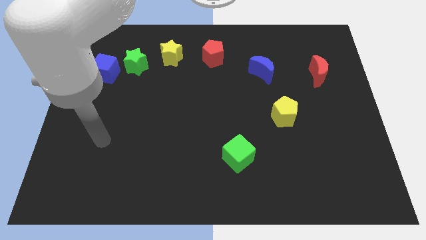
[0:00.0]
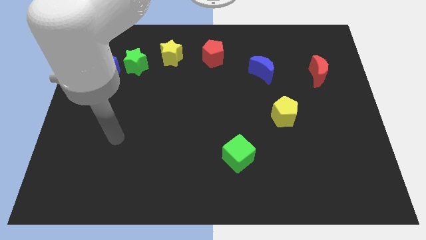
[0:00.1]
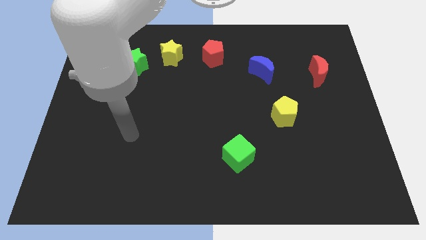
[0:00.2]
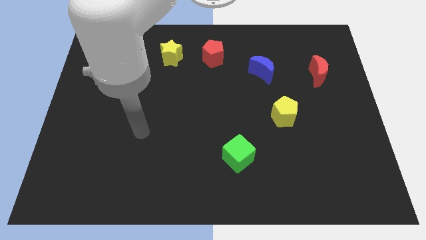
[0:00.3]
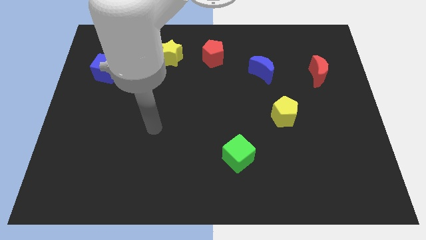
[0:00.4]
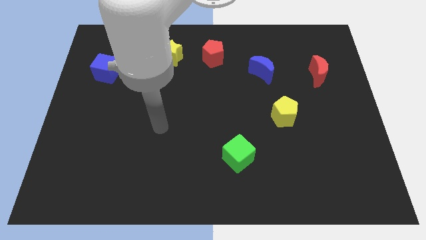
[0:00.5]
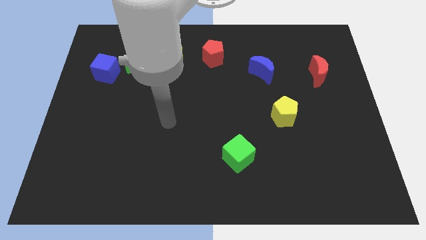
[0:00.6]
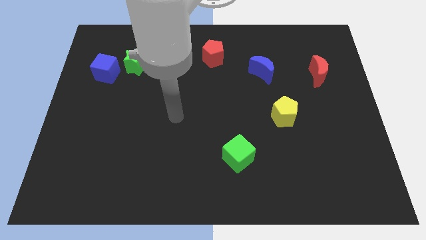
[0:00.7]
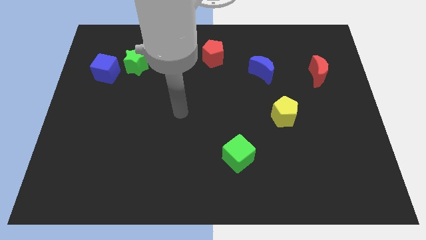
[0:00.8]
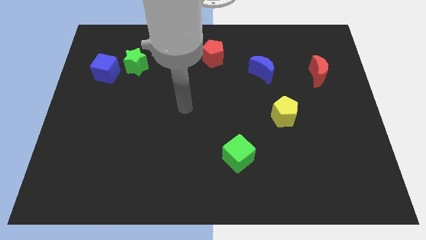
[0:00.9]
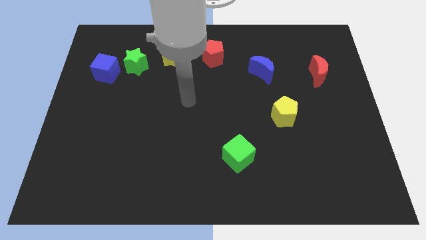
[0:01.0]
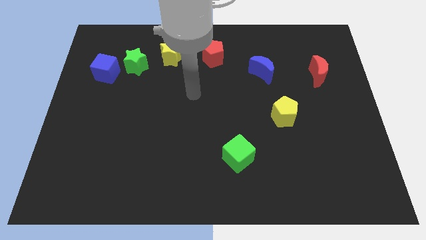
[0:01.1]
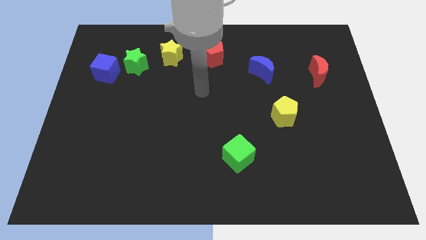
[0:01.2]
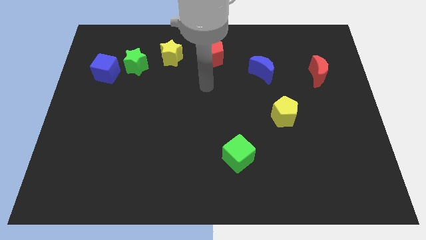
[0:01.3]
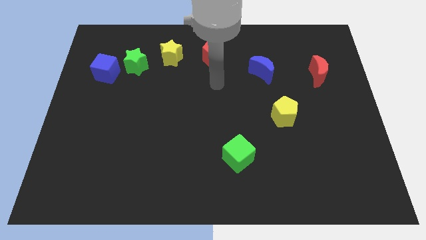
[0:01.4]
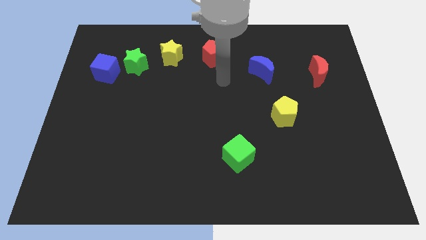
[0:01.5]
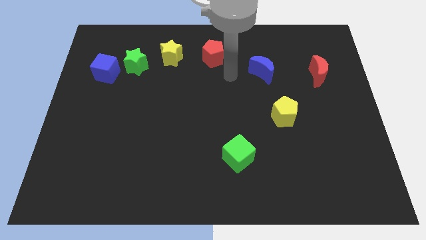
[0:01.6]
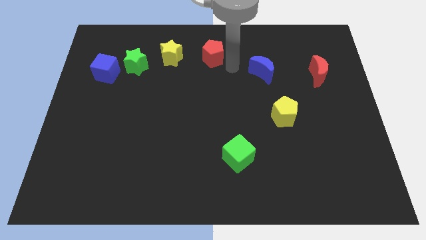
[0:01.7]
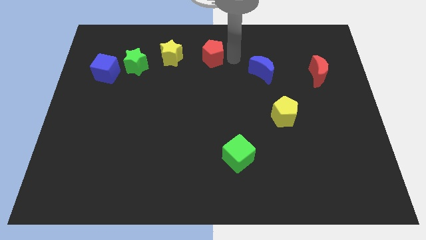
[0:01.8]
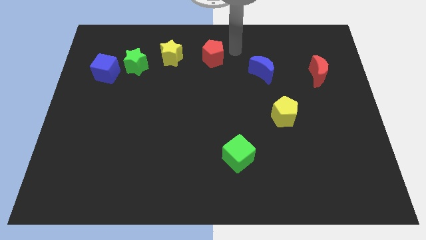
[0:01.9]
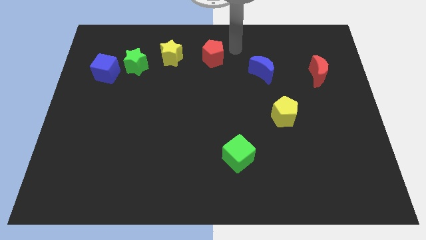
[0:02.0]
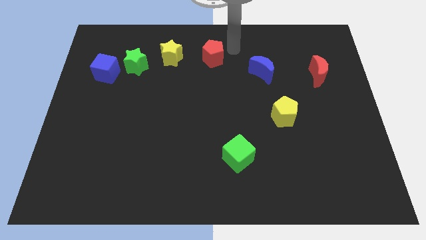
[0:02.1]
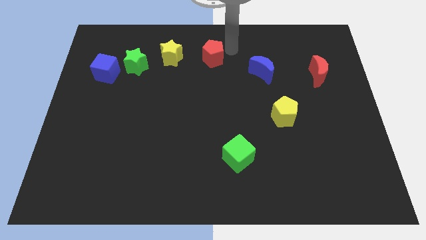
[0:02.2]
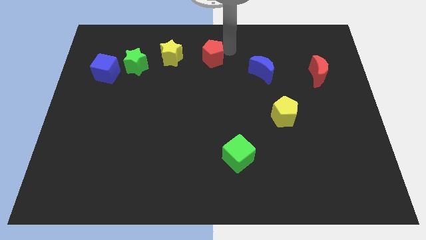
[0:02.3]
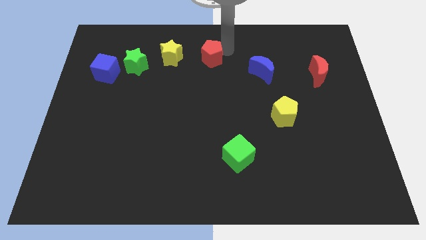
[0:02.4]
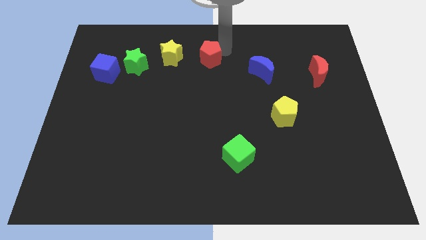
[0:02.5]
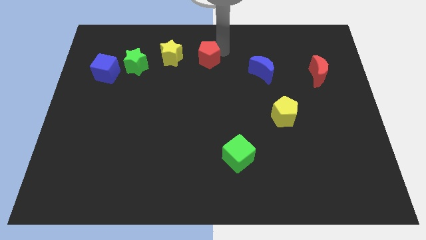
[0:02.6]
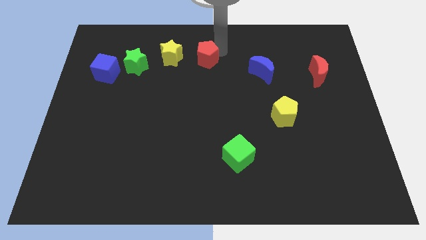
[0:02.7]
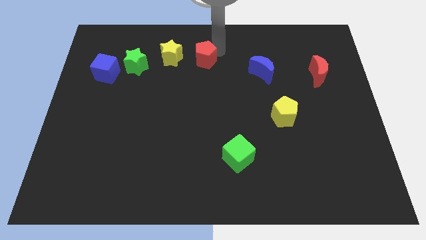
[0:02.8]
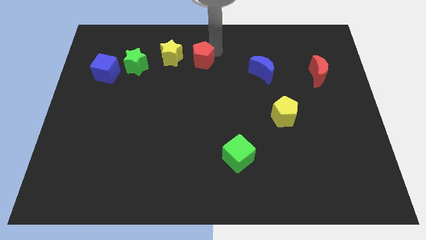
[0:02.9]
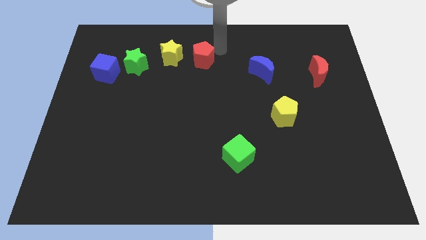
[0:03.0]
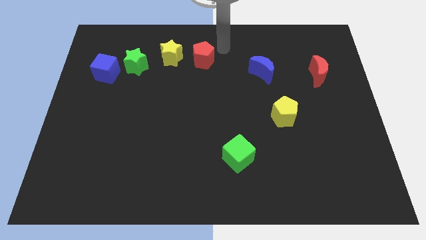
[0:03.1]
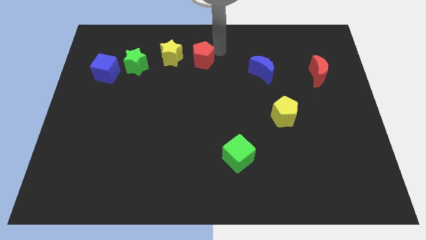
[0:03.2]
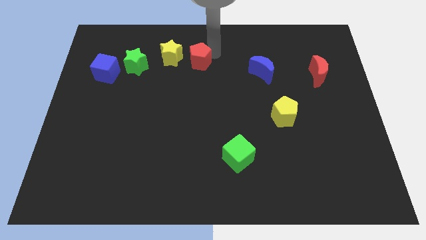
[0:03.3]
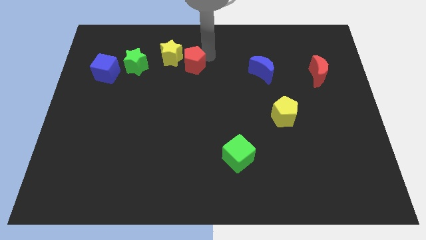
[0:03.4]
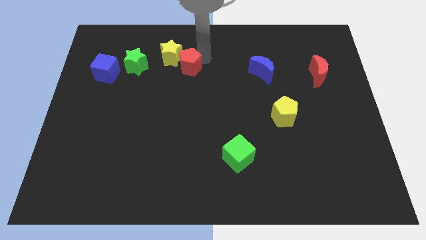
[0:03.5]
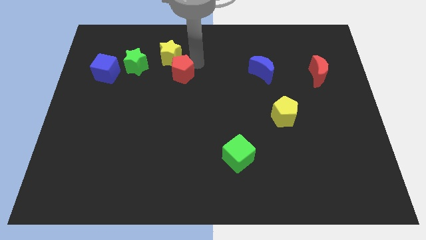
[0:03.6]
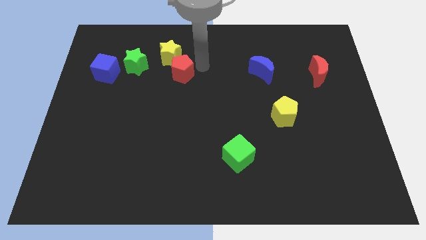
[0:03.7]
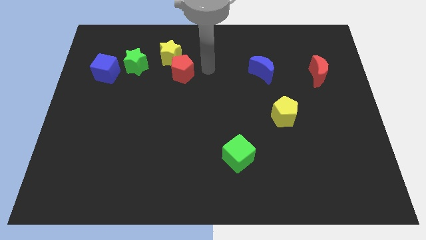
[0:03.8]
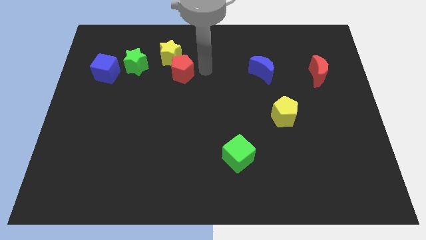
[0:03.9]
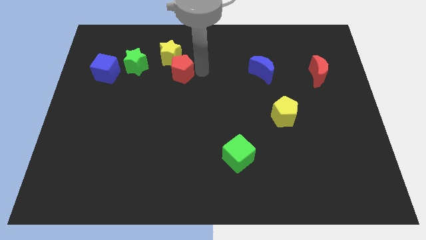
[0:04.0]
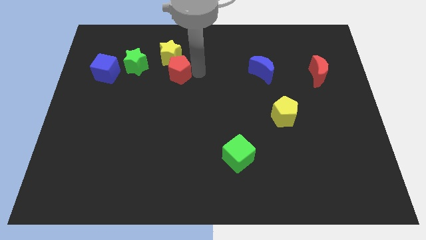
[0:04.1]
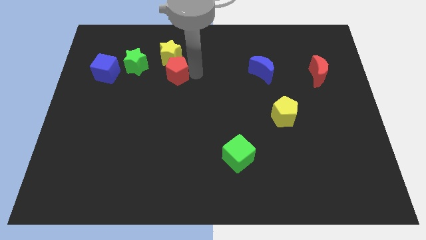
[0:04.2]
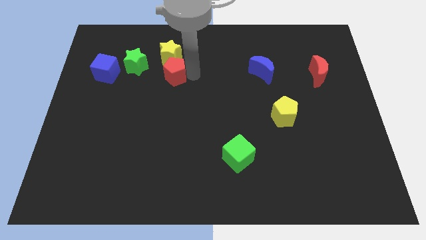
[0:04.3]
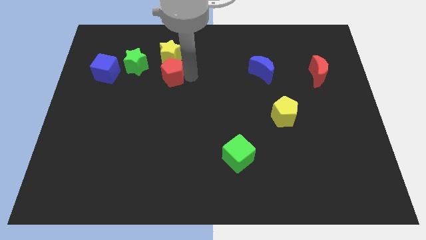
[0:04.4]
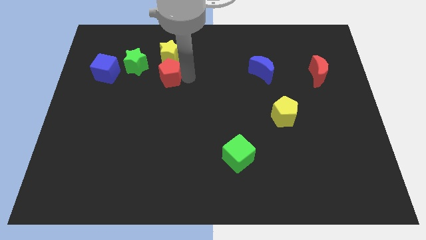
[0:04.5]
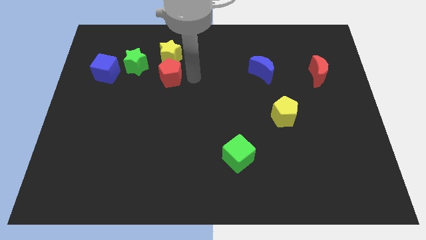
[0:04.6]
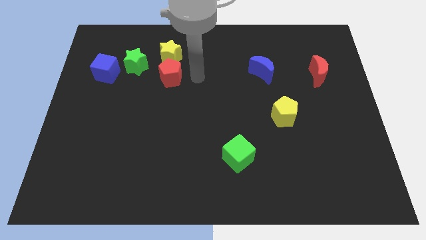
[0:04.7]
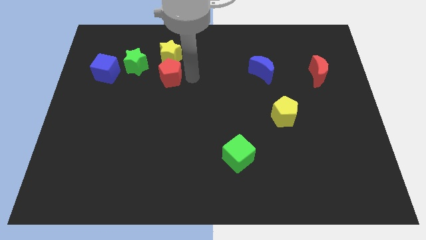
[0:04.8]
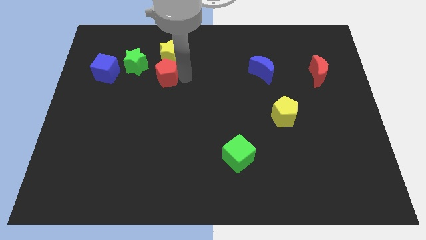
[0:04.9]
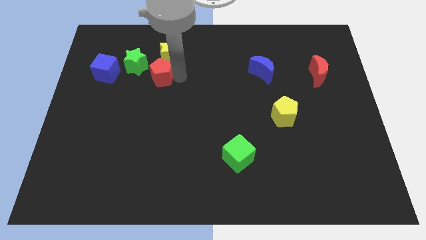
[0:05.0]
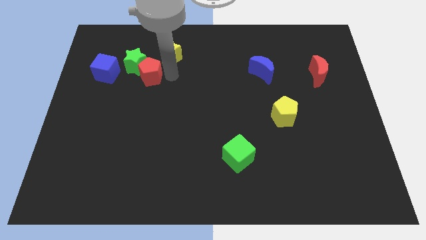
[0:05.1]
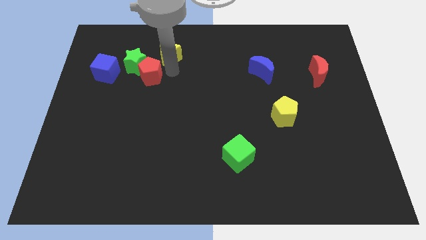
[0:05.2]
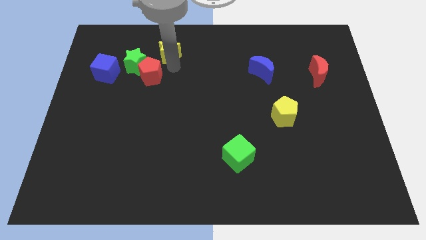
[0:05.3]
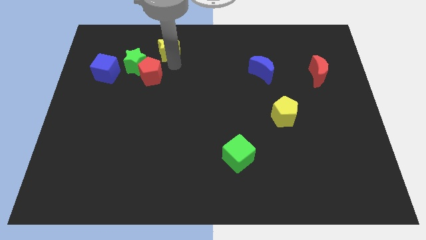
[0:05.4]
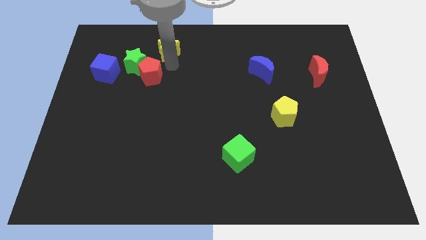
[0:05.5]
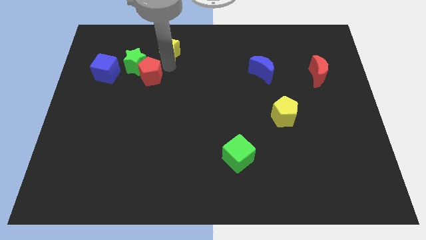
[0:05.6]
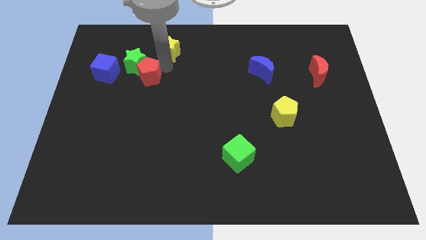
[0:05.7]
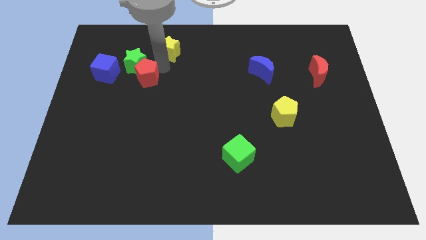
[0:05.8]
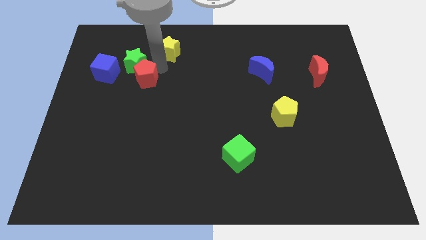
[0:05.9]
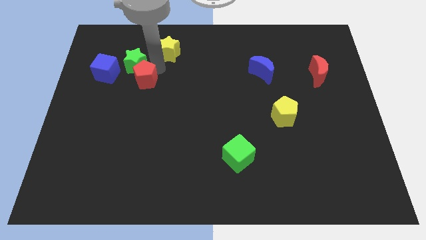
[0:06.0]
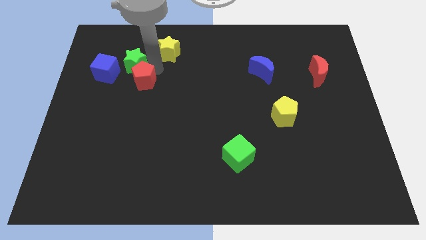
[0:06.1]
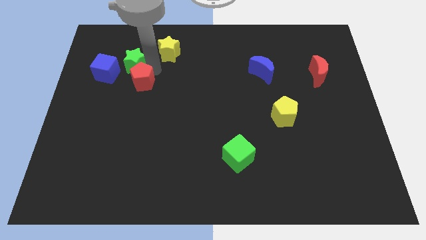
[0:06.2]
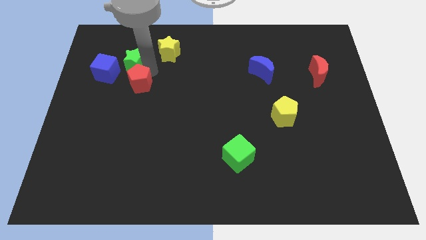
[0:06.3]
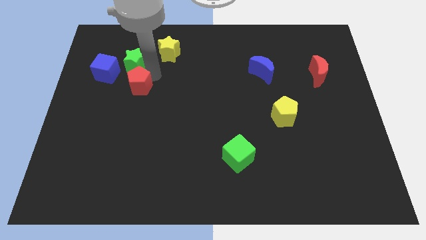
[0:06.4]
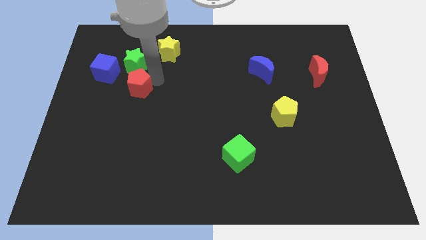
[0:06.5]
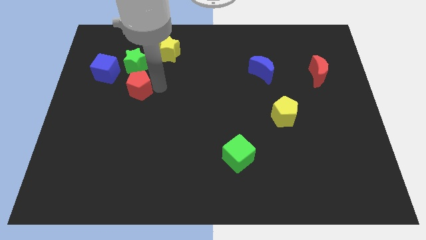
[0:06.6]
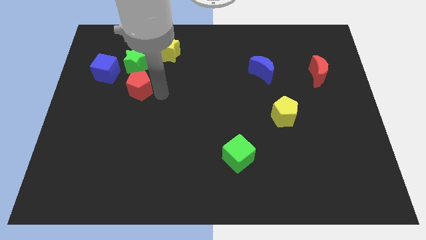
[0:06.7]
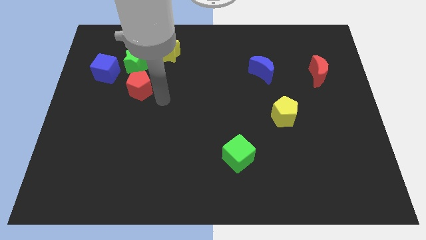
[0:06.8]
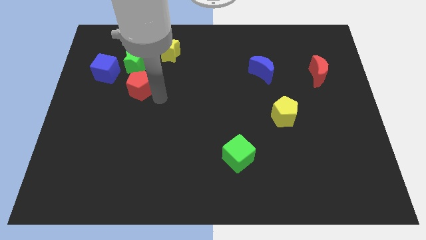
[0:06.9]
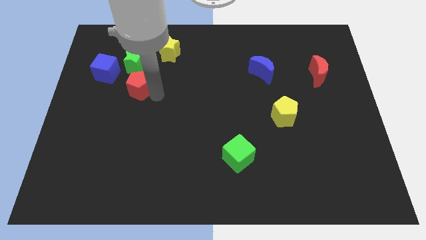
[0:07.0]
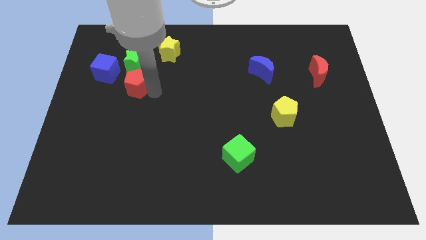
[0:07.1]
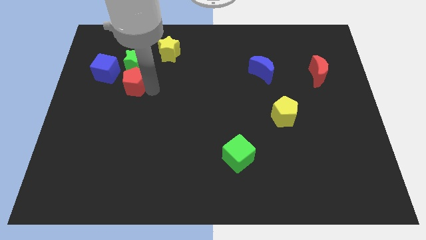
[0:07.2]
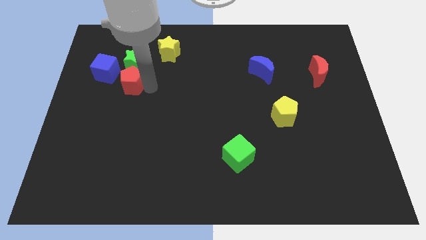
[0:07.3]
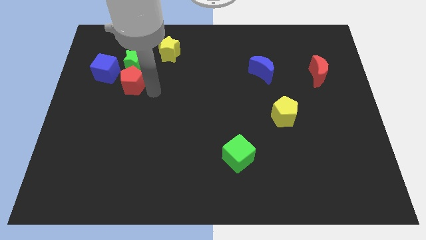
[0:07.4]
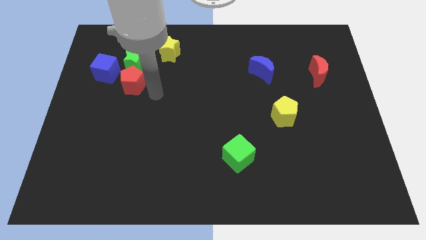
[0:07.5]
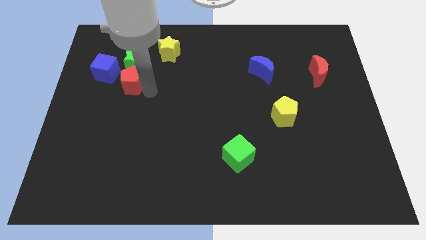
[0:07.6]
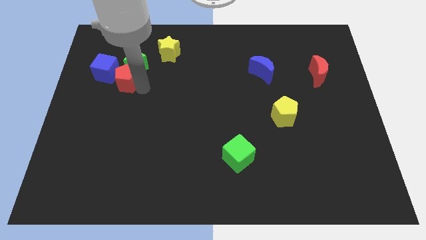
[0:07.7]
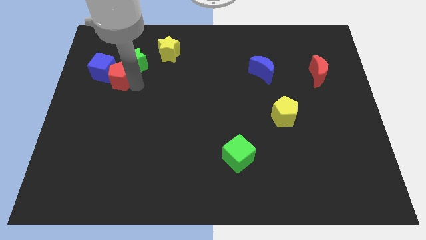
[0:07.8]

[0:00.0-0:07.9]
put the red pentagon close to the blue cube
